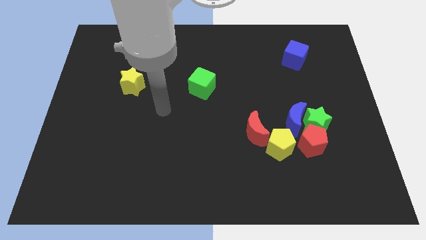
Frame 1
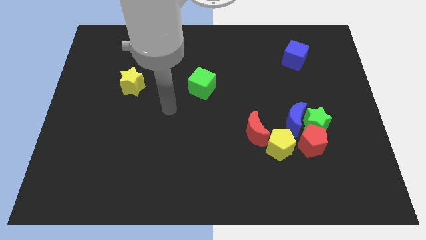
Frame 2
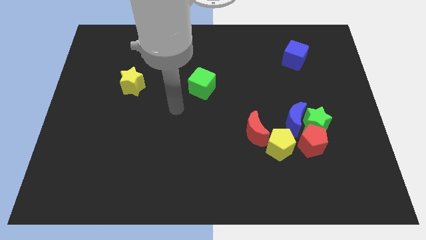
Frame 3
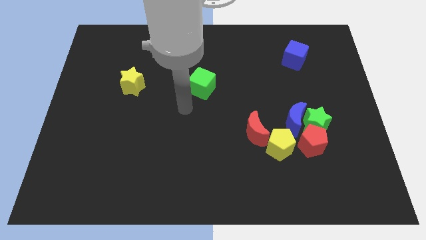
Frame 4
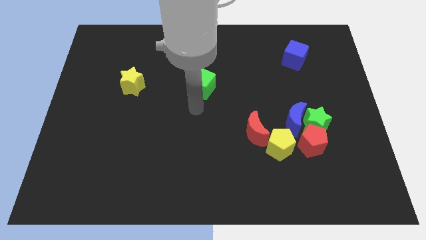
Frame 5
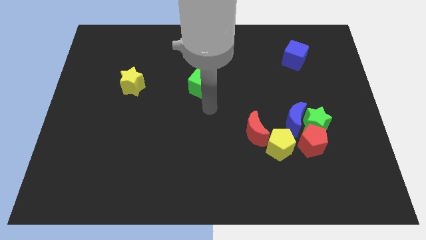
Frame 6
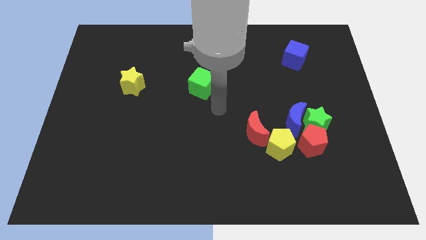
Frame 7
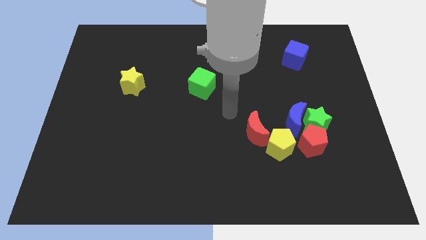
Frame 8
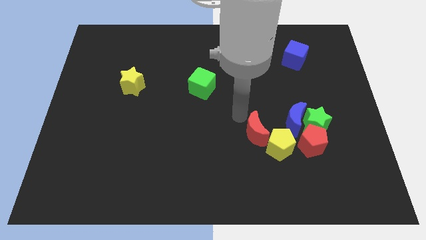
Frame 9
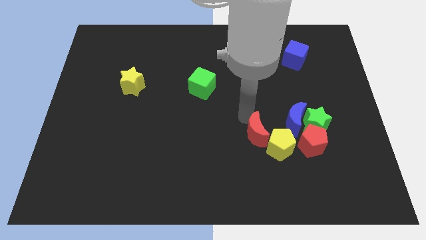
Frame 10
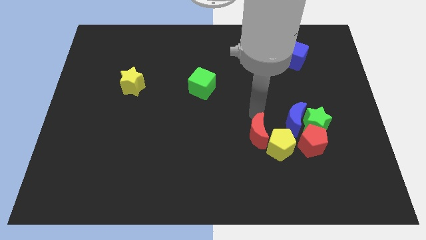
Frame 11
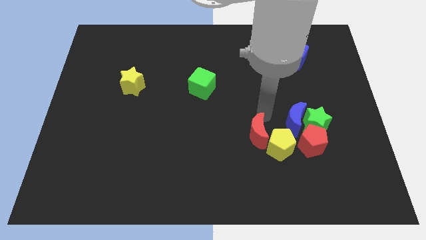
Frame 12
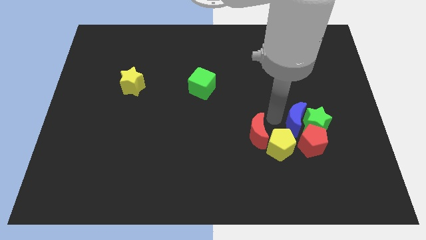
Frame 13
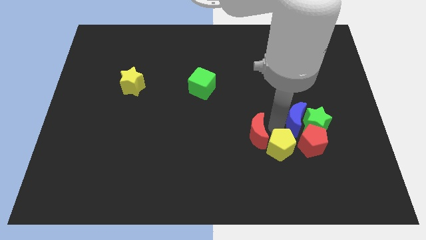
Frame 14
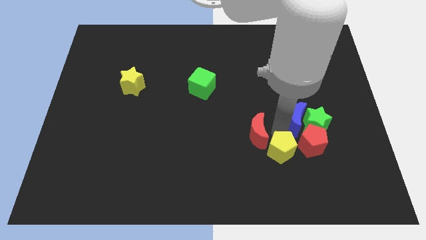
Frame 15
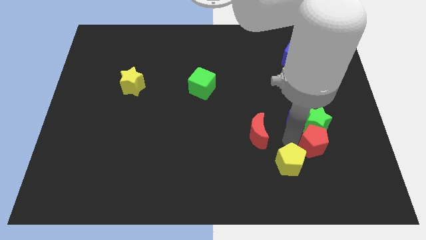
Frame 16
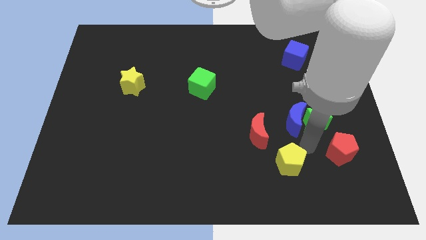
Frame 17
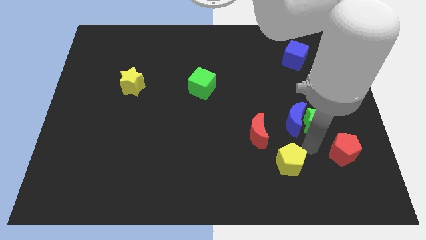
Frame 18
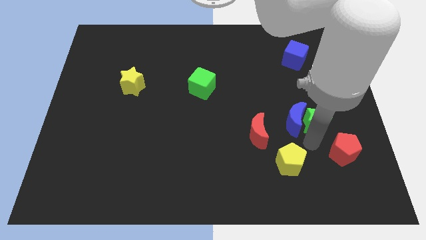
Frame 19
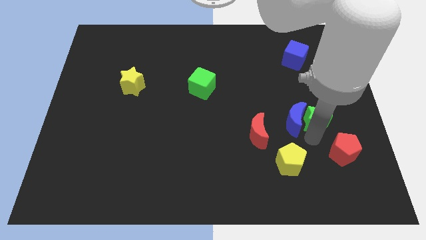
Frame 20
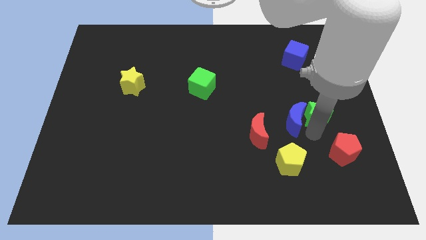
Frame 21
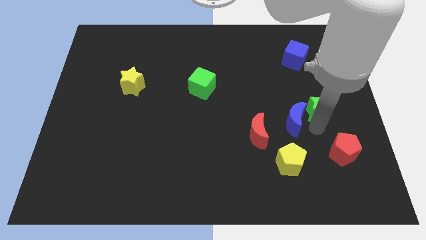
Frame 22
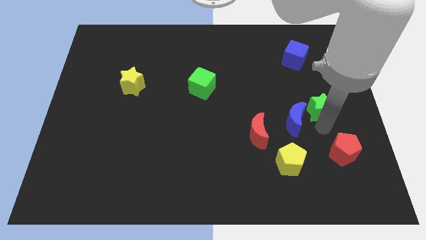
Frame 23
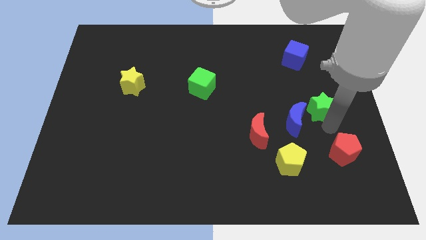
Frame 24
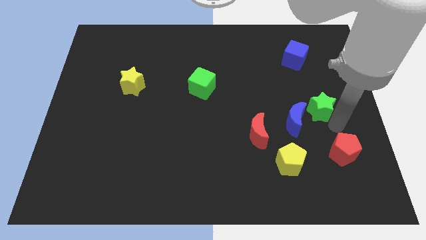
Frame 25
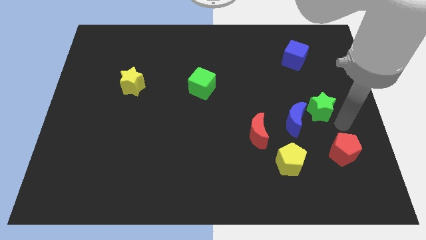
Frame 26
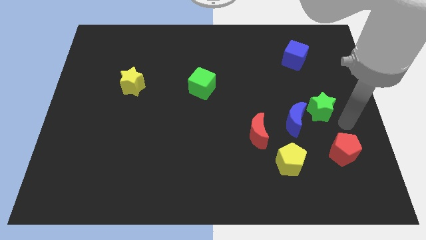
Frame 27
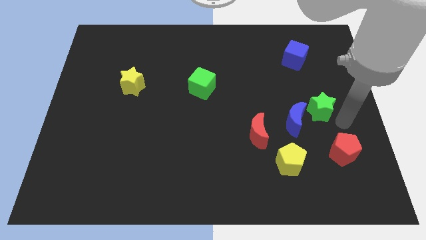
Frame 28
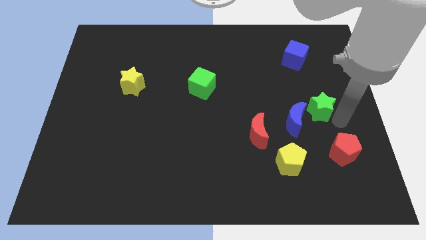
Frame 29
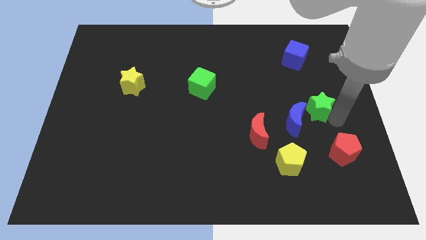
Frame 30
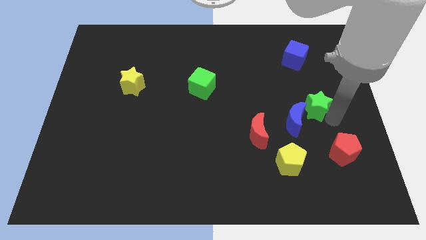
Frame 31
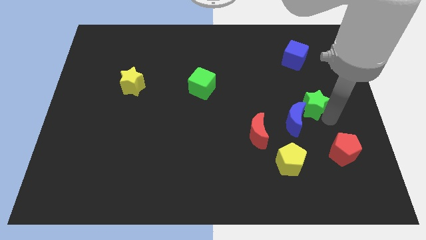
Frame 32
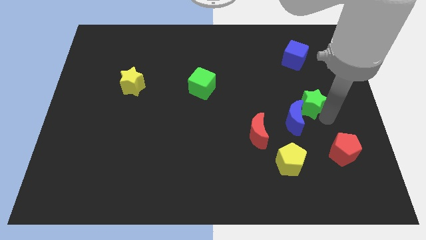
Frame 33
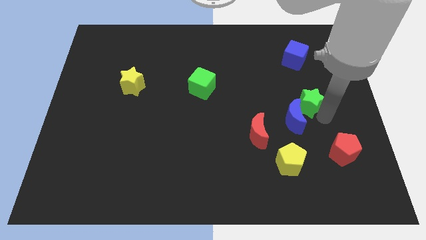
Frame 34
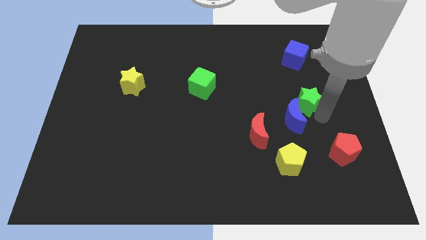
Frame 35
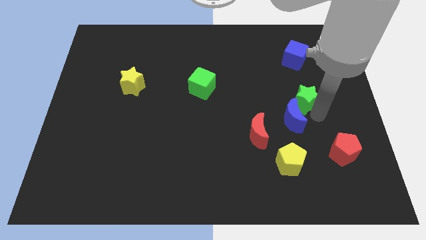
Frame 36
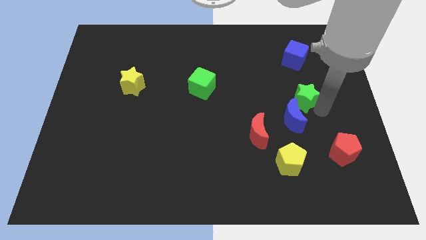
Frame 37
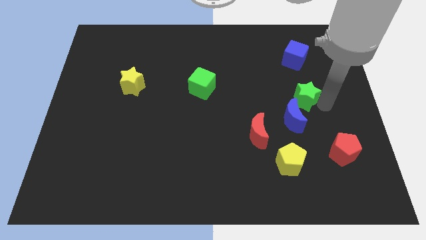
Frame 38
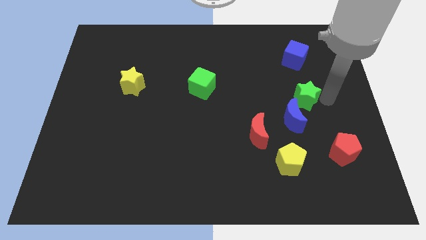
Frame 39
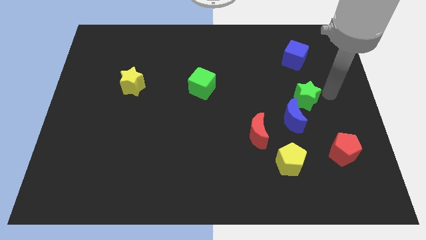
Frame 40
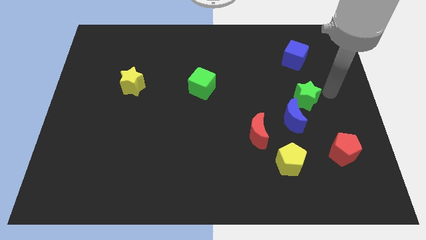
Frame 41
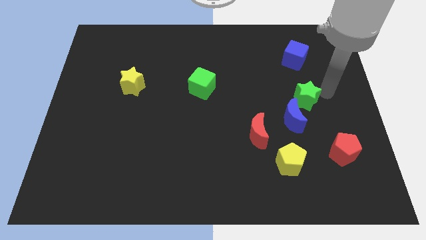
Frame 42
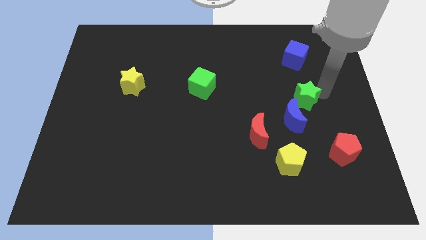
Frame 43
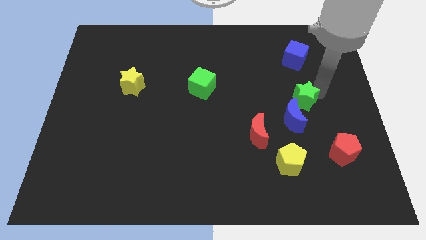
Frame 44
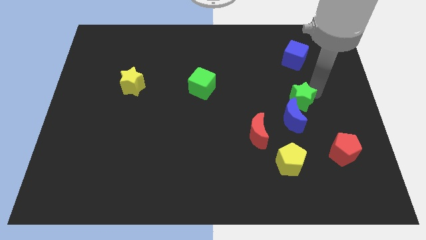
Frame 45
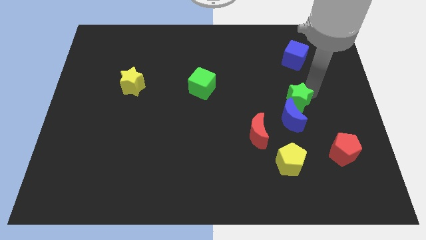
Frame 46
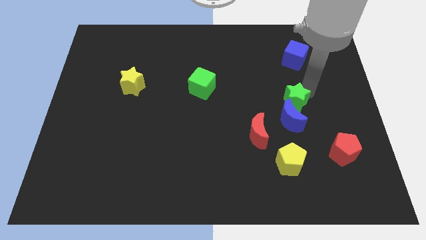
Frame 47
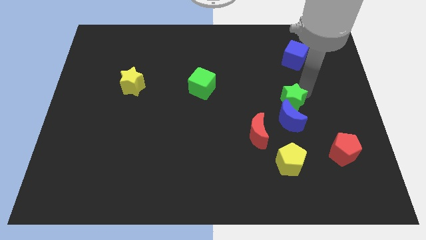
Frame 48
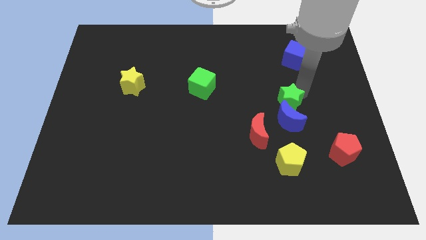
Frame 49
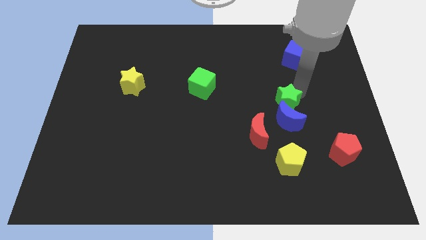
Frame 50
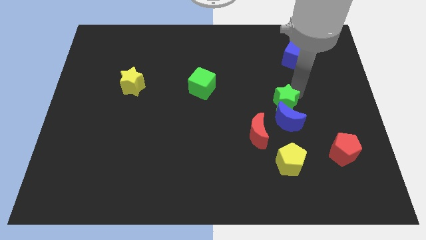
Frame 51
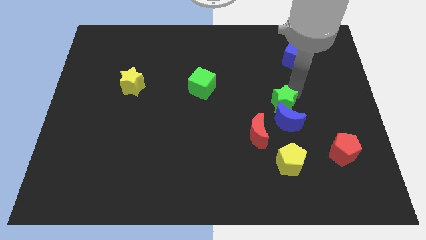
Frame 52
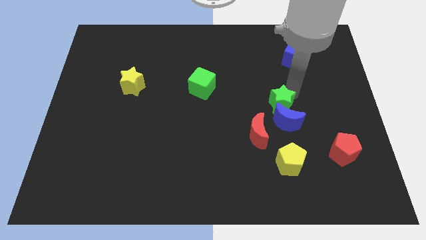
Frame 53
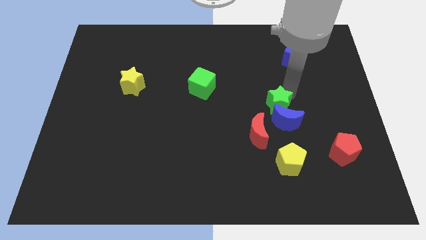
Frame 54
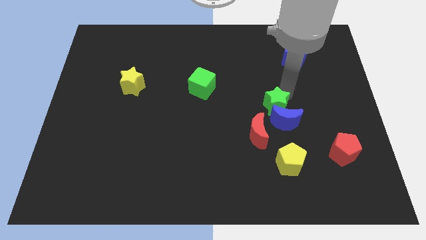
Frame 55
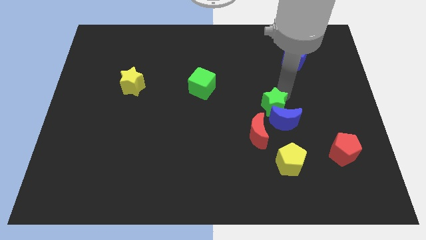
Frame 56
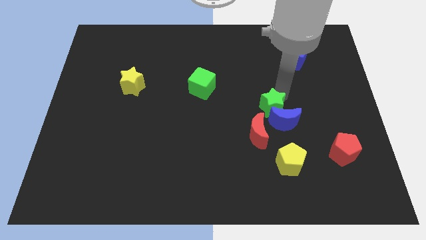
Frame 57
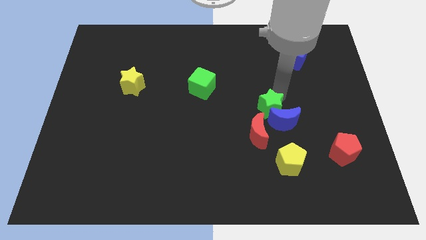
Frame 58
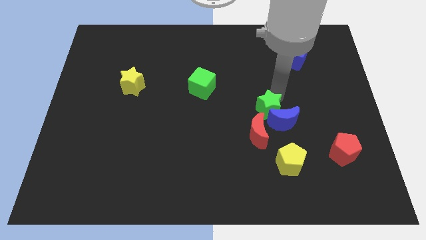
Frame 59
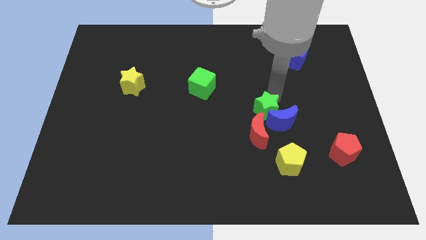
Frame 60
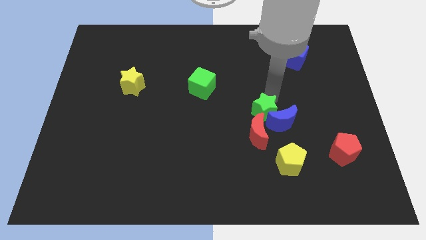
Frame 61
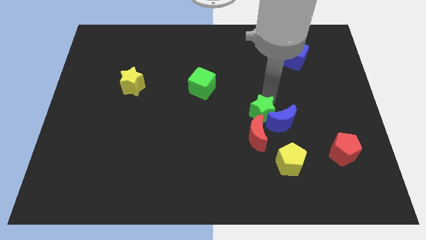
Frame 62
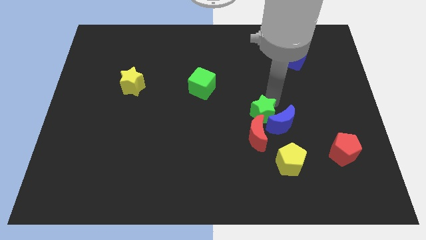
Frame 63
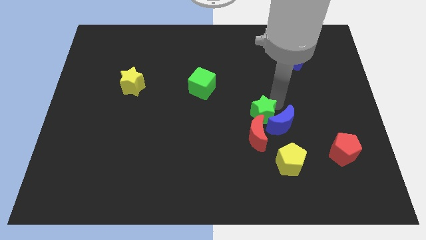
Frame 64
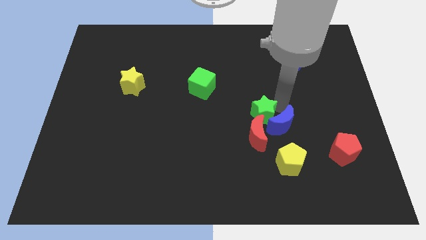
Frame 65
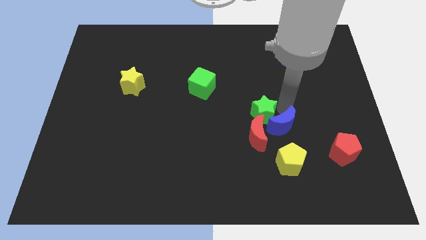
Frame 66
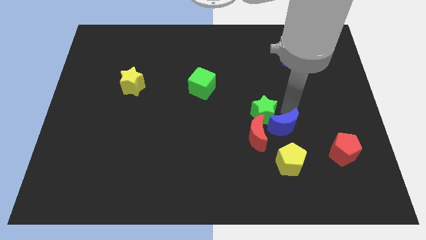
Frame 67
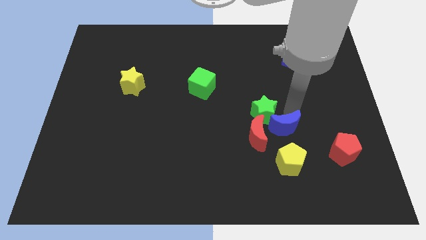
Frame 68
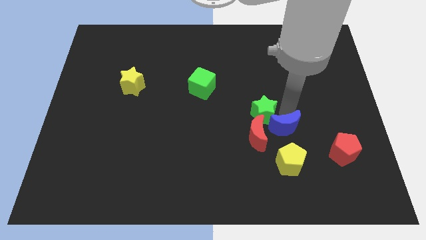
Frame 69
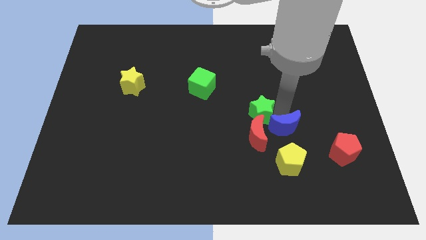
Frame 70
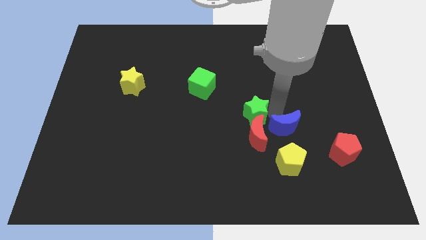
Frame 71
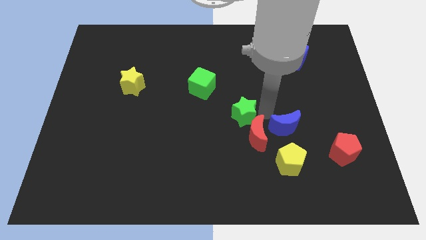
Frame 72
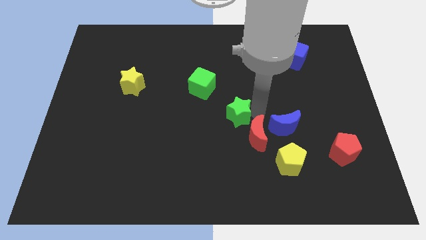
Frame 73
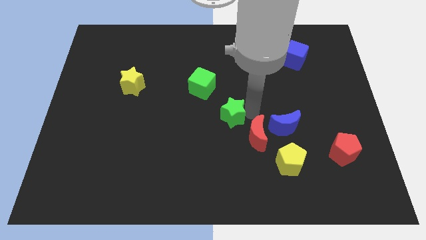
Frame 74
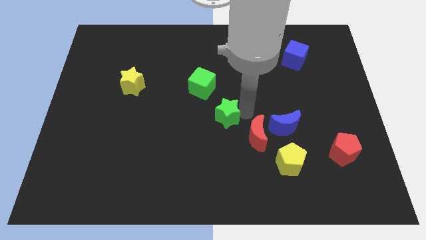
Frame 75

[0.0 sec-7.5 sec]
push the green star to the left

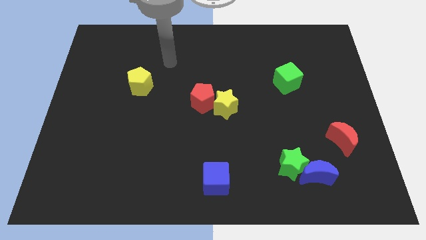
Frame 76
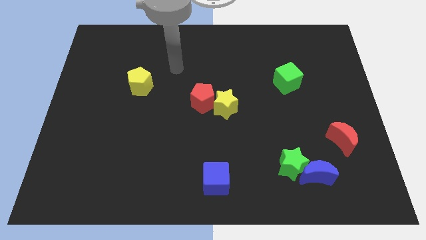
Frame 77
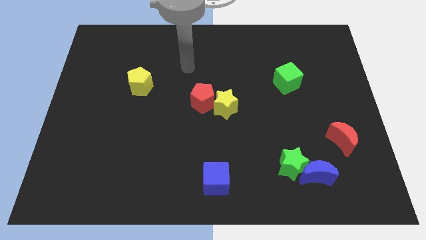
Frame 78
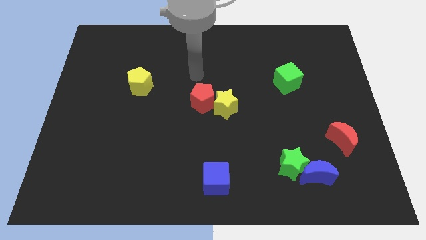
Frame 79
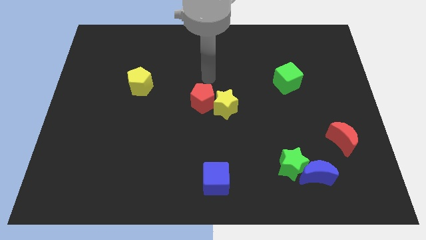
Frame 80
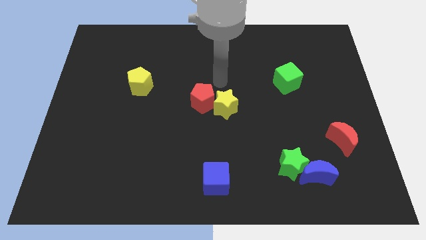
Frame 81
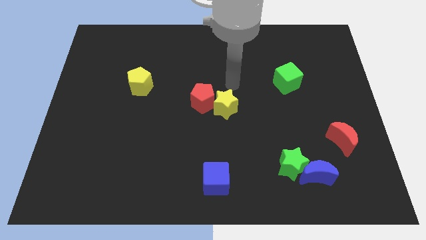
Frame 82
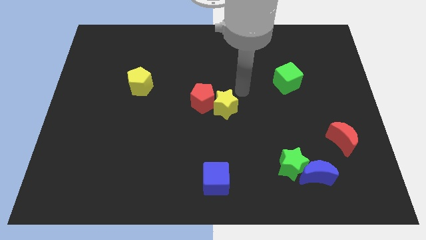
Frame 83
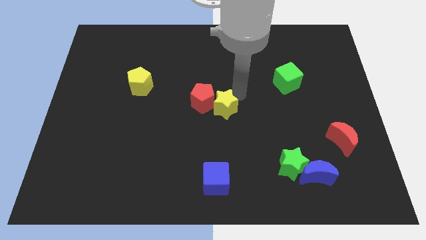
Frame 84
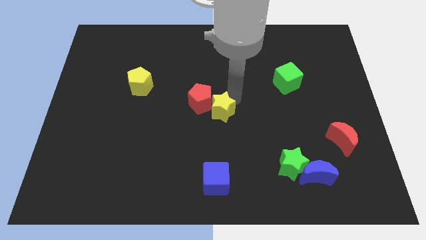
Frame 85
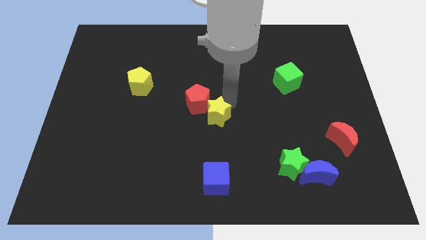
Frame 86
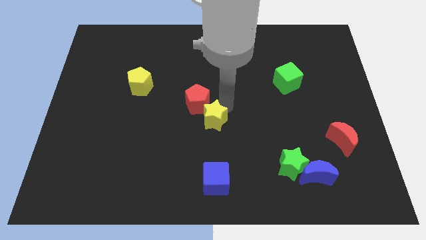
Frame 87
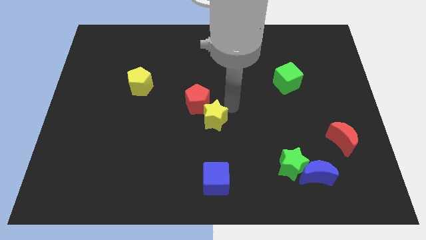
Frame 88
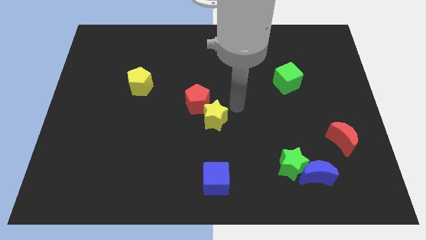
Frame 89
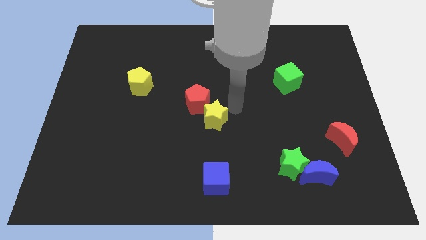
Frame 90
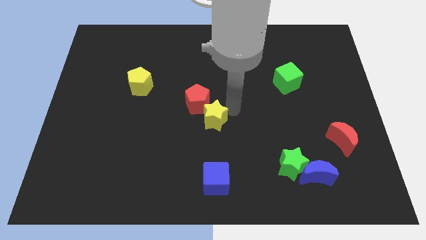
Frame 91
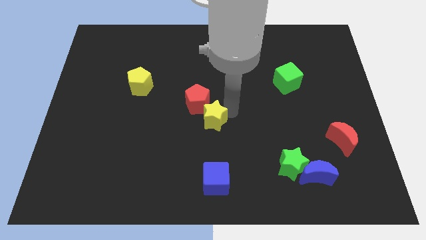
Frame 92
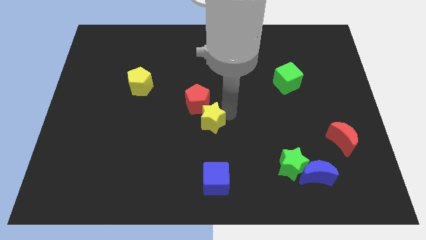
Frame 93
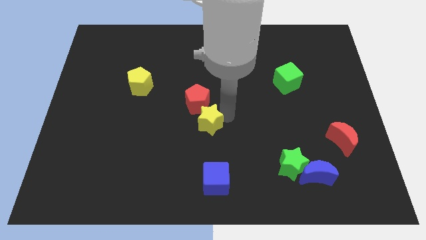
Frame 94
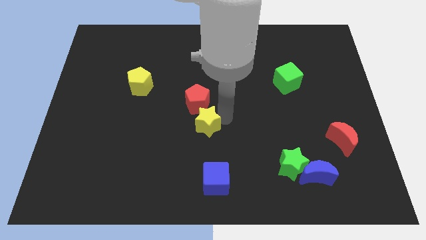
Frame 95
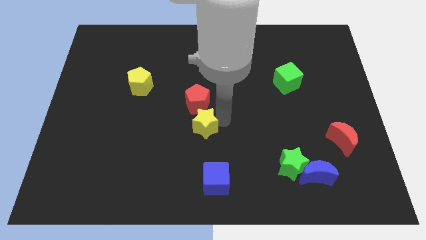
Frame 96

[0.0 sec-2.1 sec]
slightly push the yellow star downwards and then to the left
